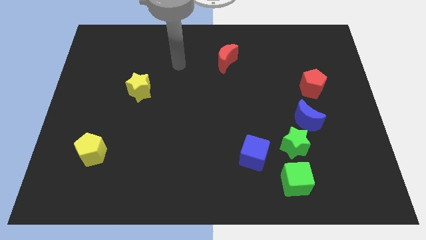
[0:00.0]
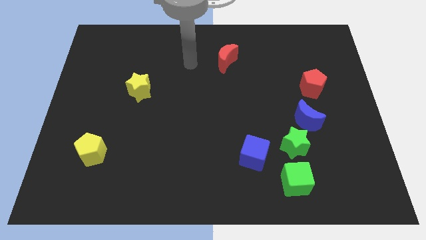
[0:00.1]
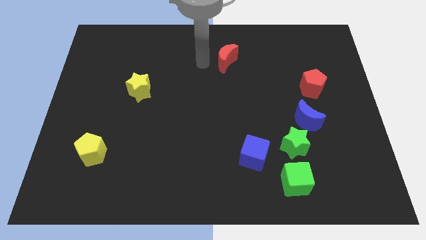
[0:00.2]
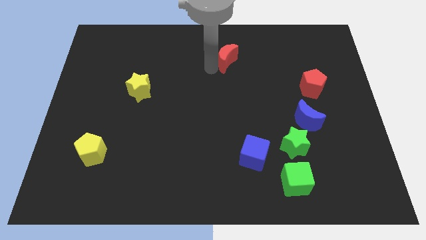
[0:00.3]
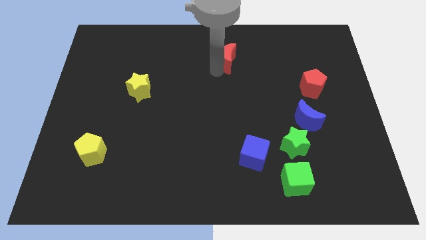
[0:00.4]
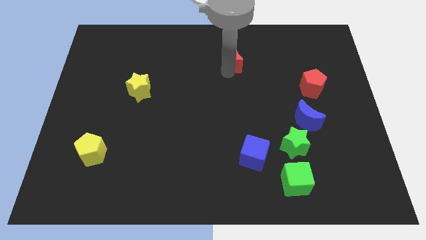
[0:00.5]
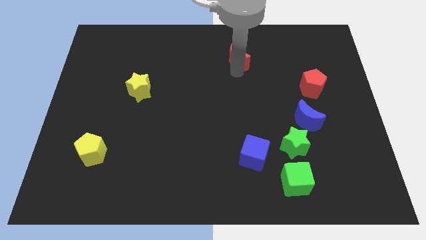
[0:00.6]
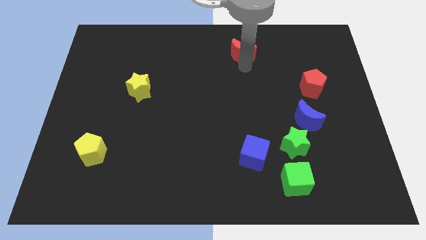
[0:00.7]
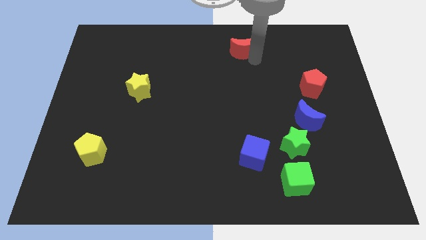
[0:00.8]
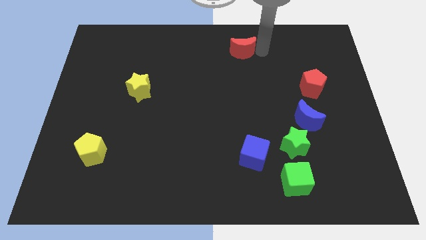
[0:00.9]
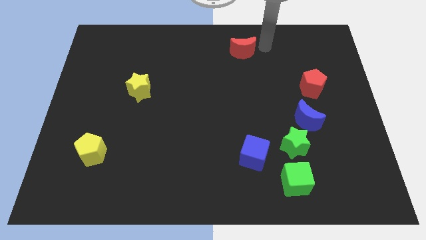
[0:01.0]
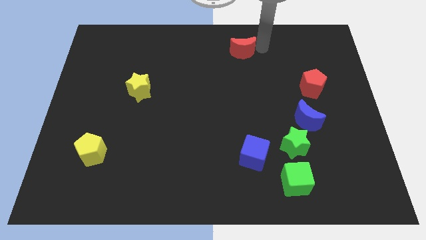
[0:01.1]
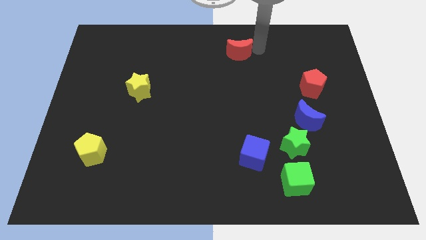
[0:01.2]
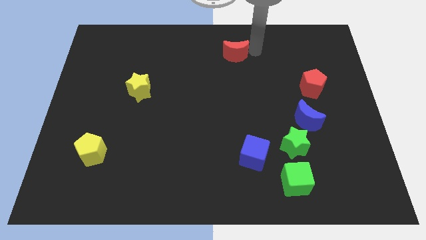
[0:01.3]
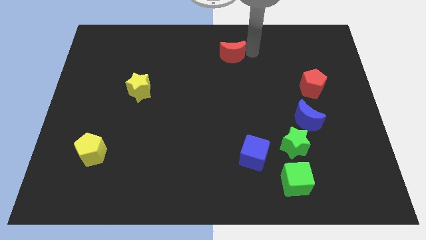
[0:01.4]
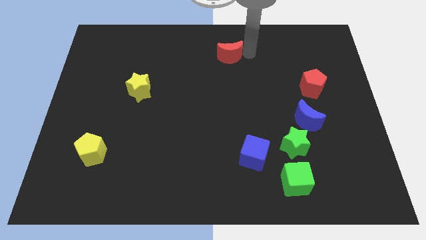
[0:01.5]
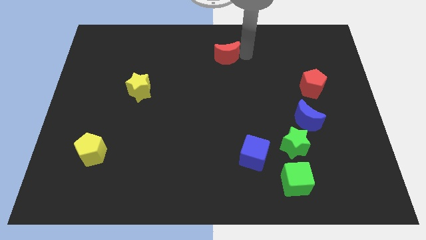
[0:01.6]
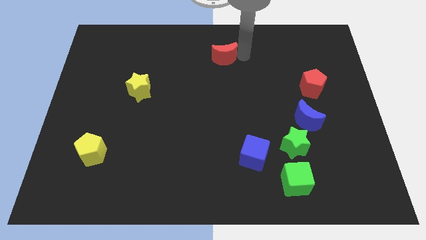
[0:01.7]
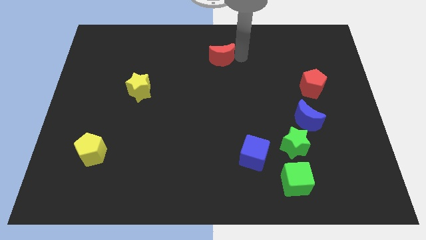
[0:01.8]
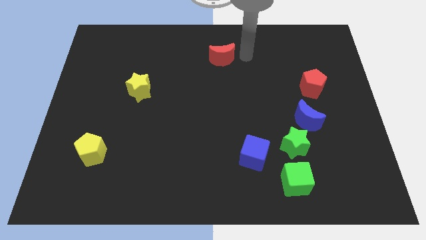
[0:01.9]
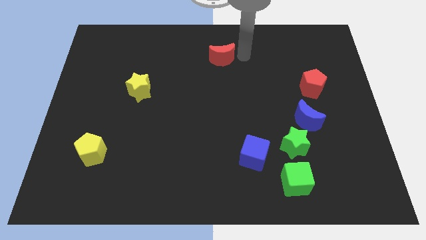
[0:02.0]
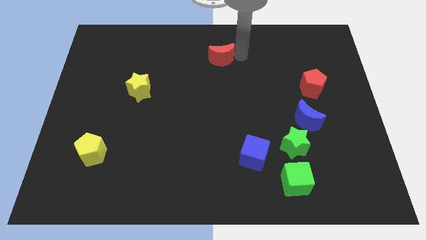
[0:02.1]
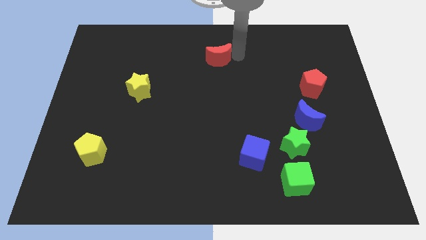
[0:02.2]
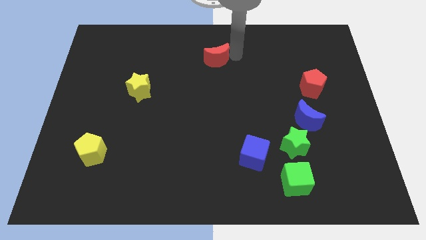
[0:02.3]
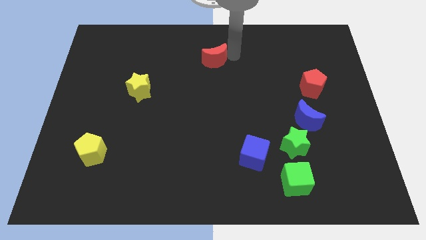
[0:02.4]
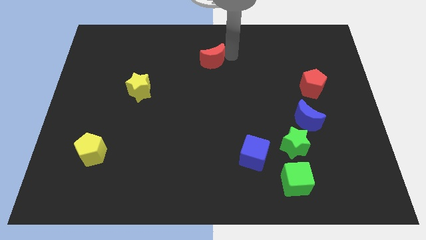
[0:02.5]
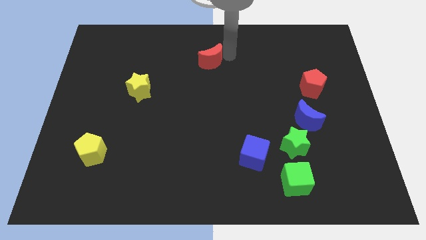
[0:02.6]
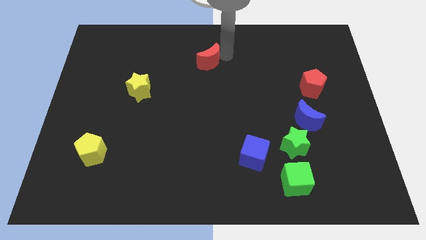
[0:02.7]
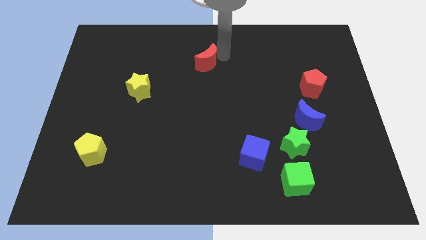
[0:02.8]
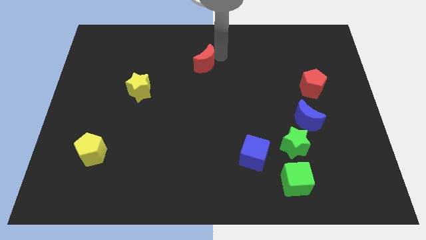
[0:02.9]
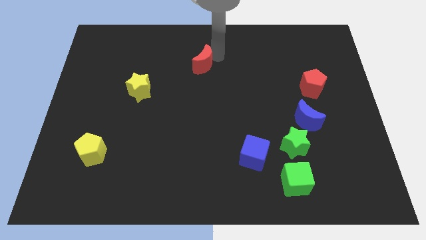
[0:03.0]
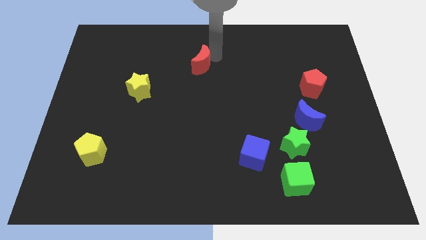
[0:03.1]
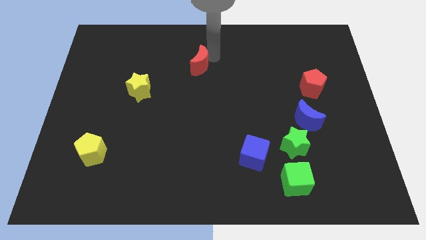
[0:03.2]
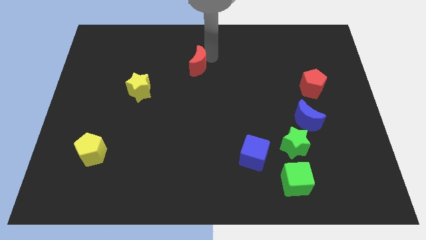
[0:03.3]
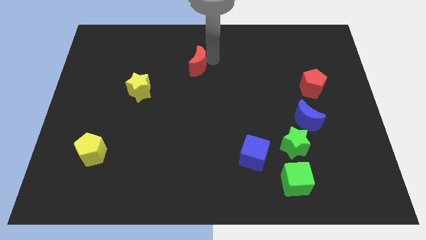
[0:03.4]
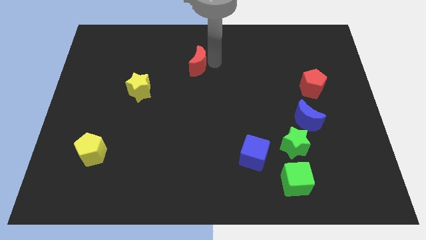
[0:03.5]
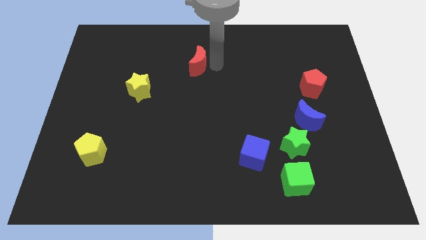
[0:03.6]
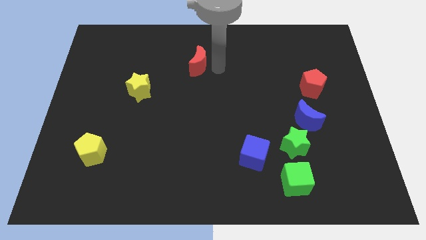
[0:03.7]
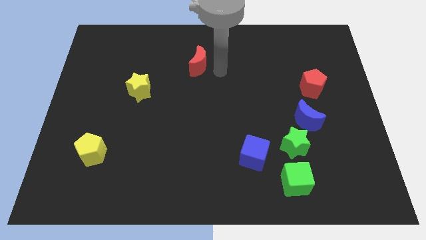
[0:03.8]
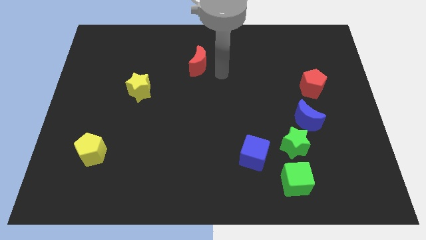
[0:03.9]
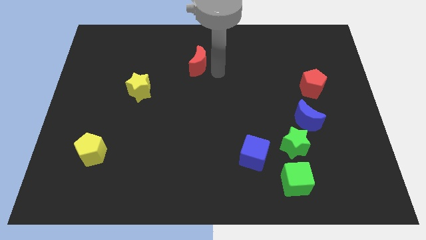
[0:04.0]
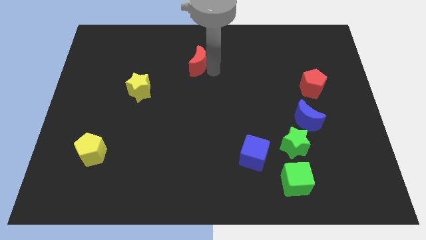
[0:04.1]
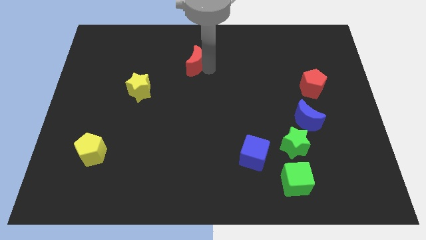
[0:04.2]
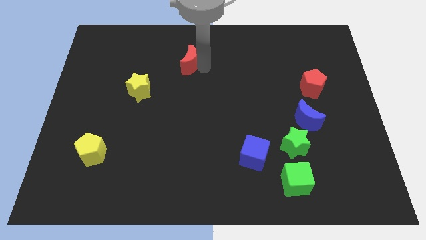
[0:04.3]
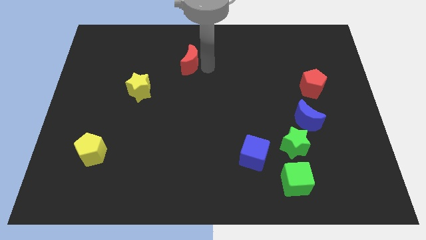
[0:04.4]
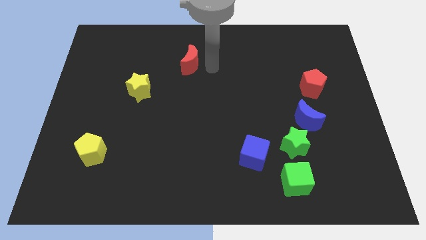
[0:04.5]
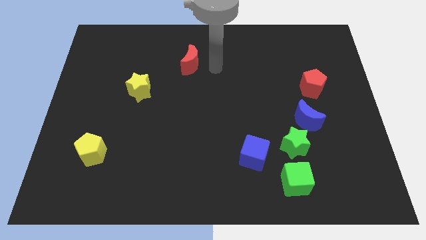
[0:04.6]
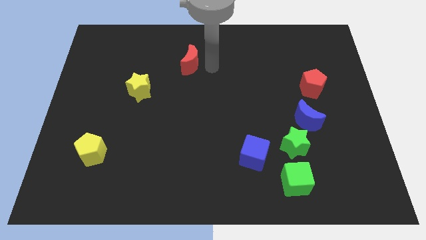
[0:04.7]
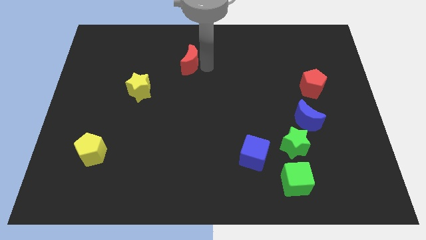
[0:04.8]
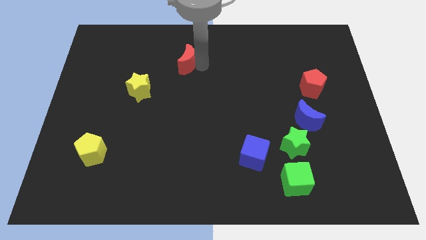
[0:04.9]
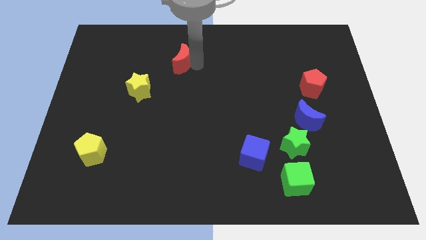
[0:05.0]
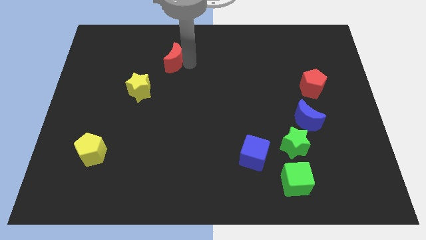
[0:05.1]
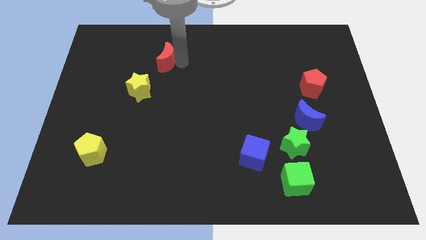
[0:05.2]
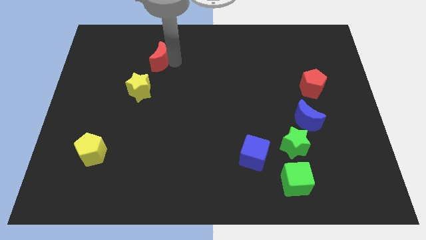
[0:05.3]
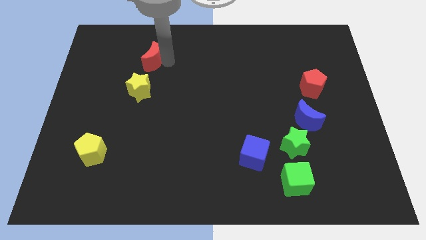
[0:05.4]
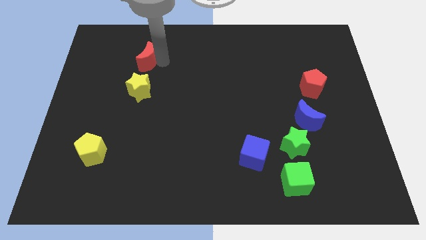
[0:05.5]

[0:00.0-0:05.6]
move the red moon to the left

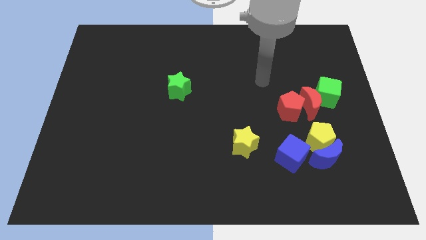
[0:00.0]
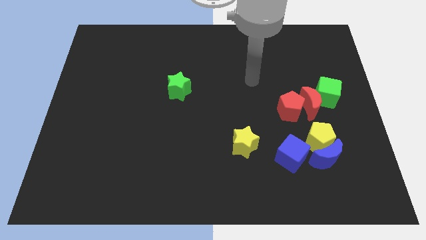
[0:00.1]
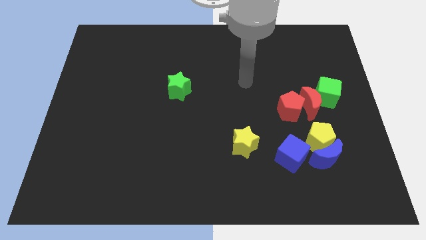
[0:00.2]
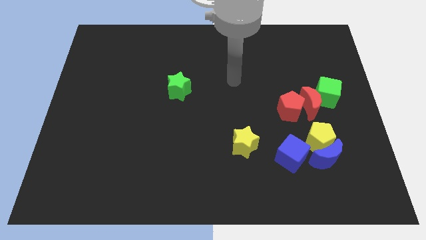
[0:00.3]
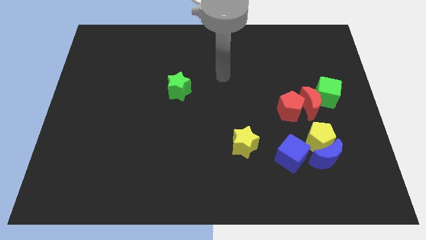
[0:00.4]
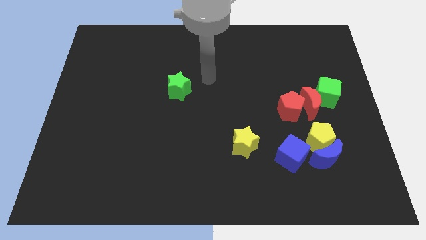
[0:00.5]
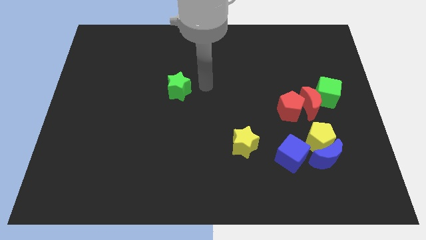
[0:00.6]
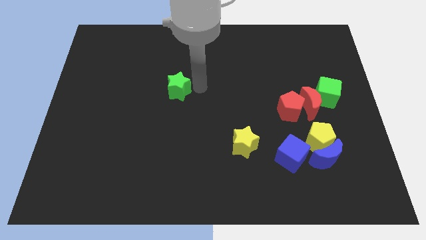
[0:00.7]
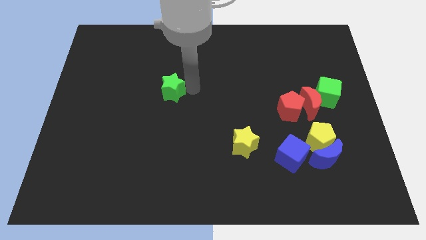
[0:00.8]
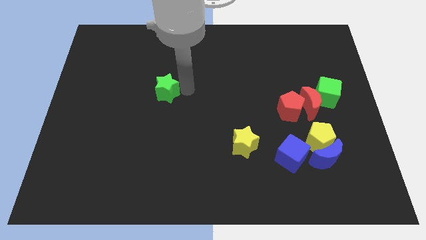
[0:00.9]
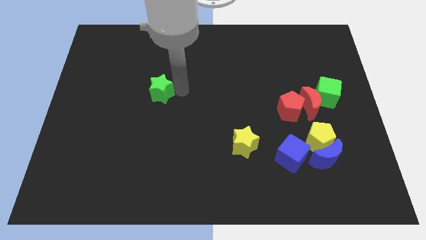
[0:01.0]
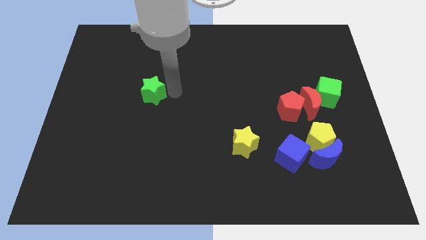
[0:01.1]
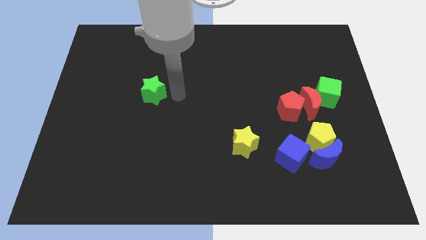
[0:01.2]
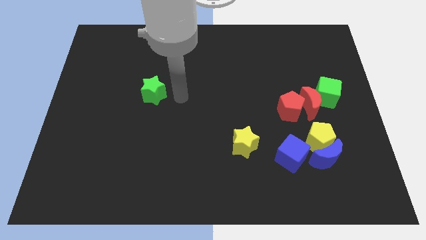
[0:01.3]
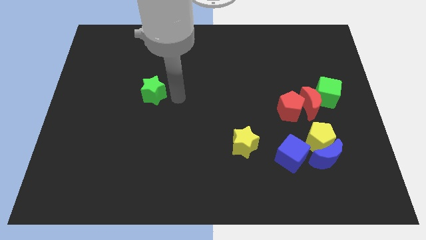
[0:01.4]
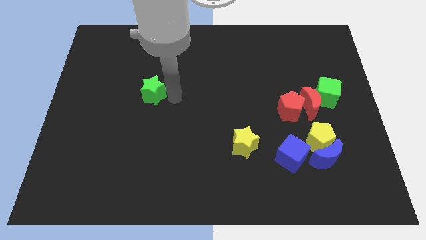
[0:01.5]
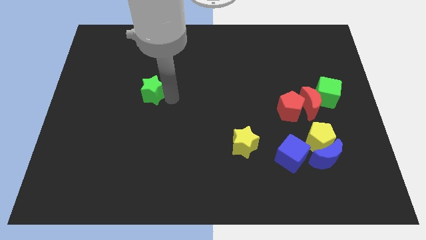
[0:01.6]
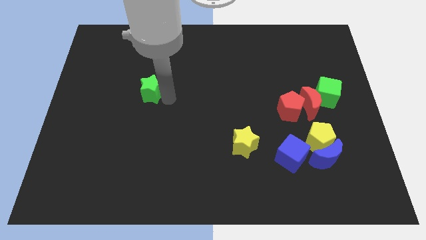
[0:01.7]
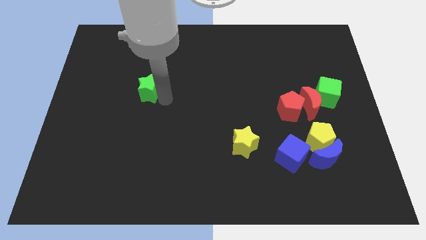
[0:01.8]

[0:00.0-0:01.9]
slide the green star a little left

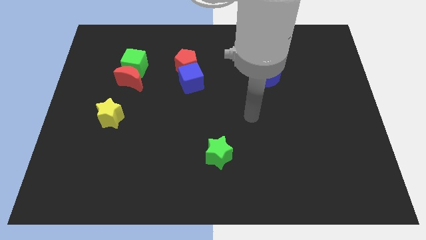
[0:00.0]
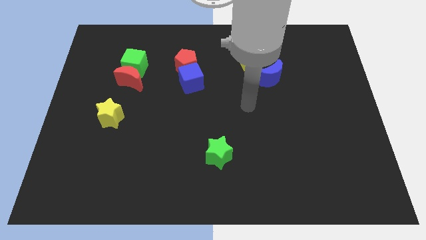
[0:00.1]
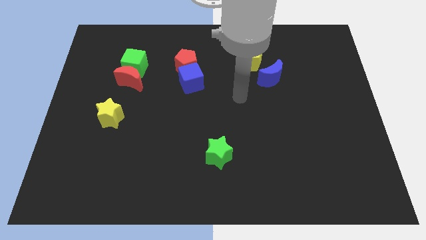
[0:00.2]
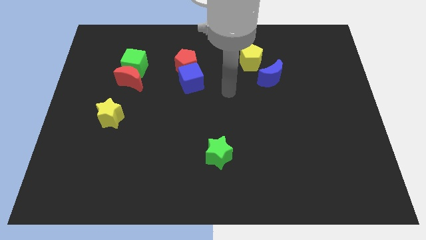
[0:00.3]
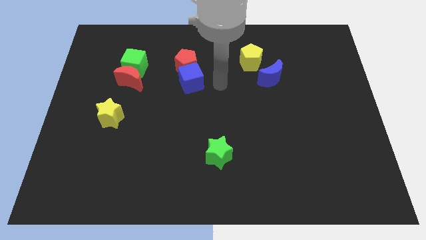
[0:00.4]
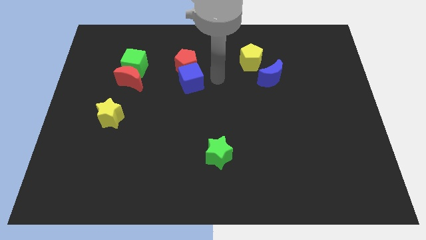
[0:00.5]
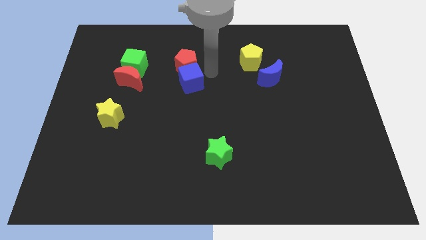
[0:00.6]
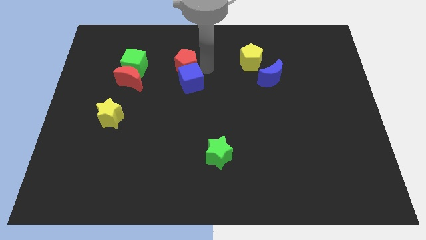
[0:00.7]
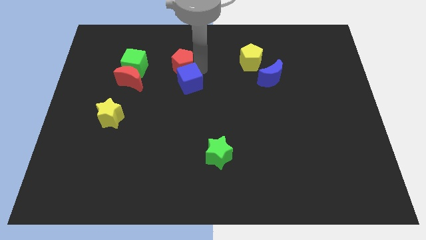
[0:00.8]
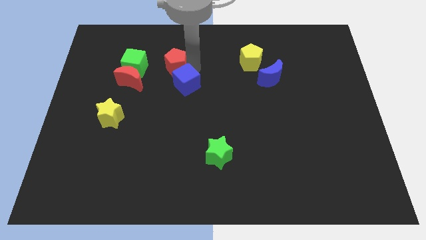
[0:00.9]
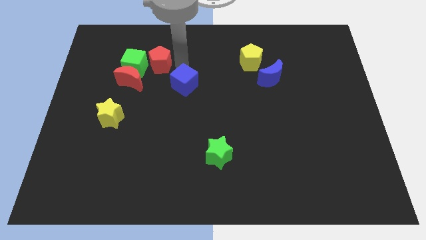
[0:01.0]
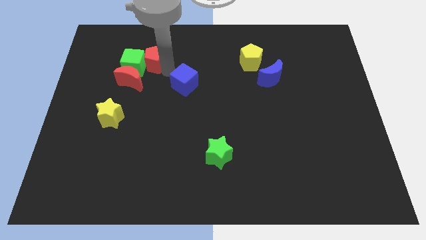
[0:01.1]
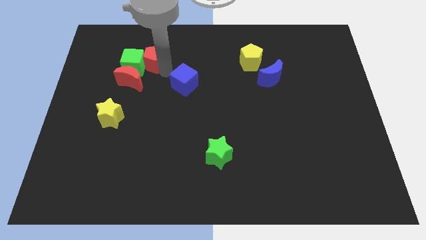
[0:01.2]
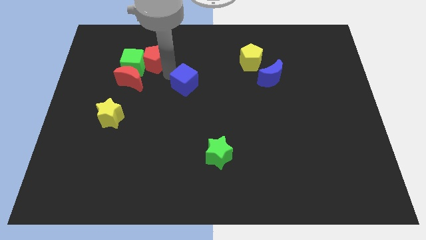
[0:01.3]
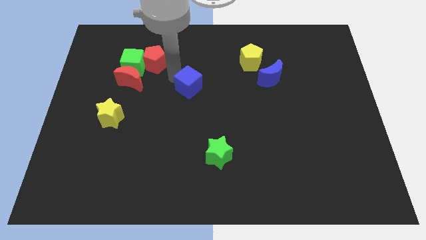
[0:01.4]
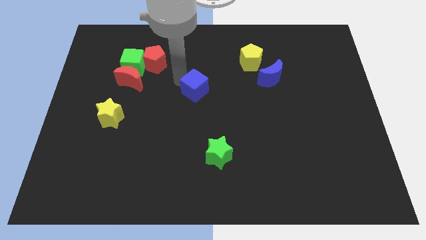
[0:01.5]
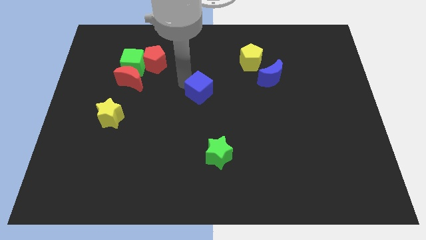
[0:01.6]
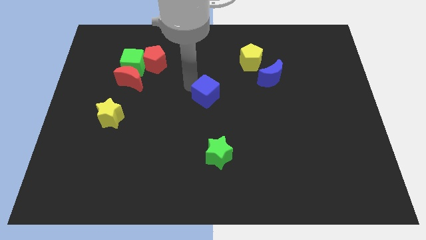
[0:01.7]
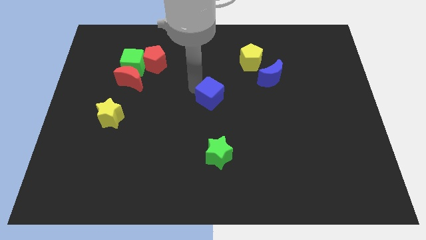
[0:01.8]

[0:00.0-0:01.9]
move the blue cube down and to the right slightly
